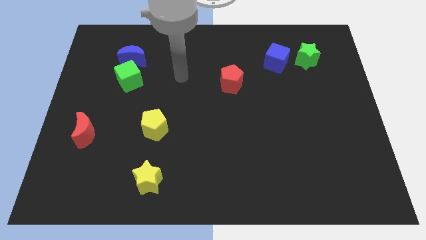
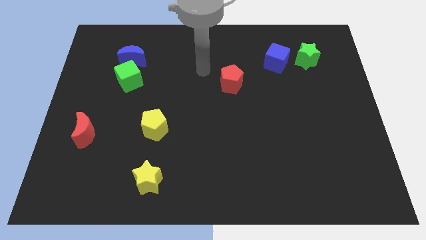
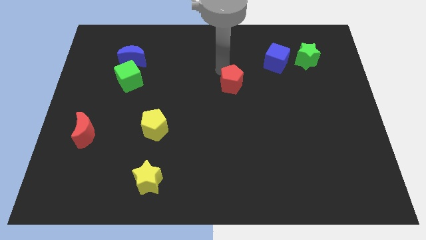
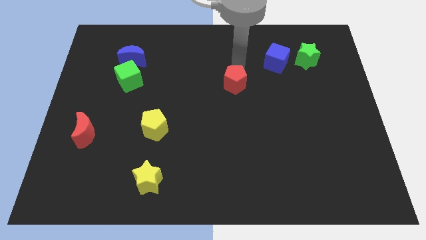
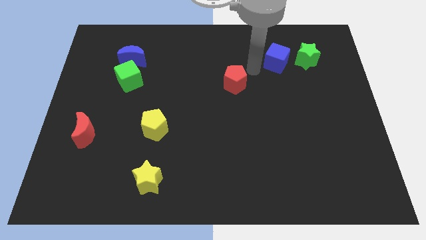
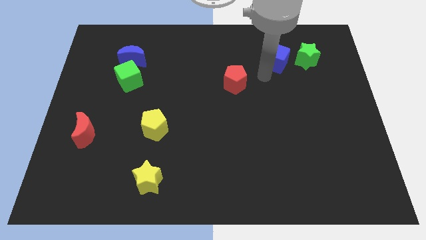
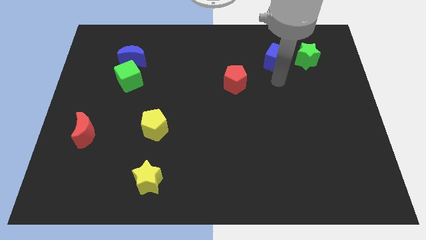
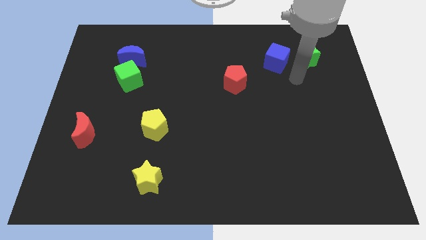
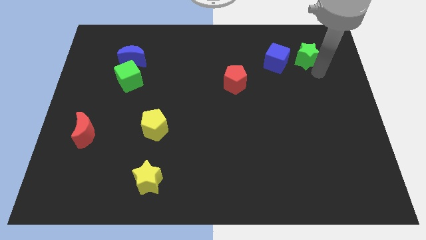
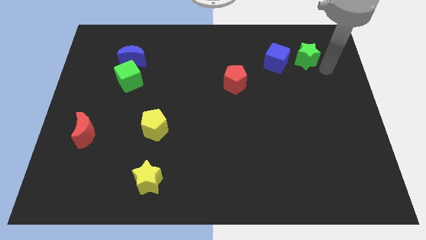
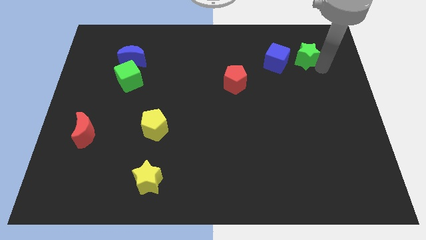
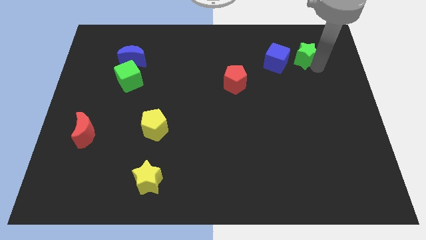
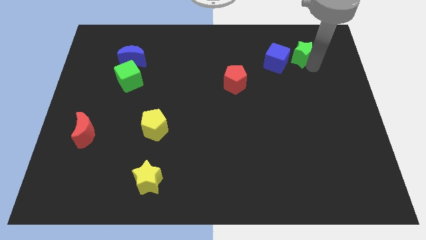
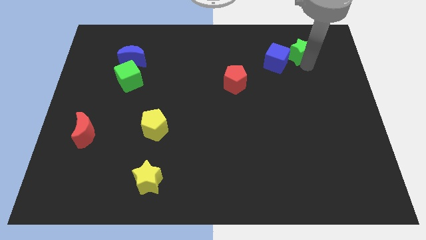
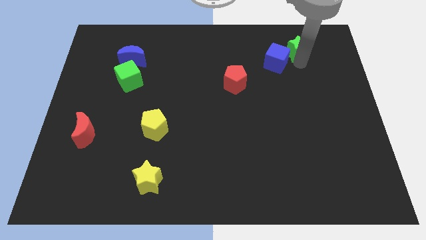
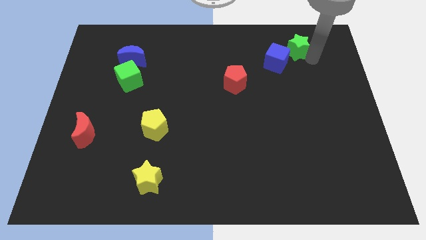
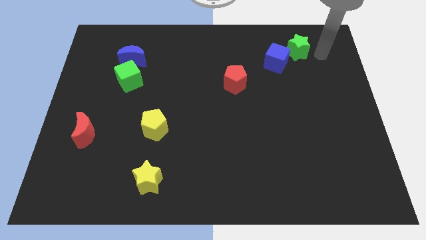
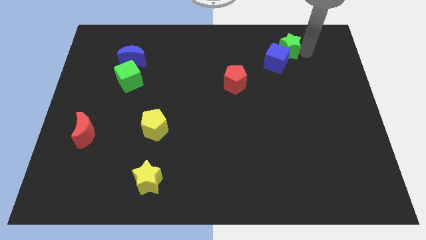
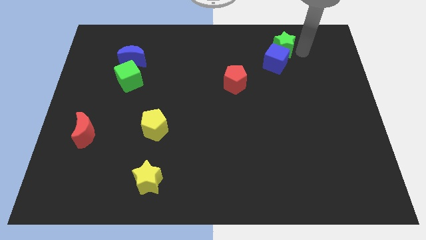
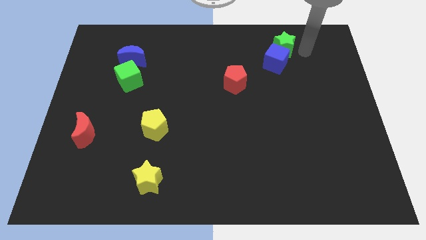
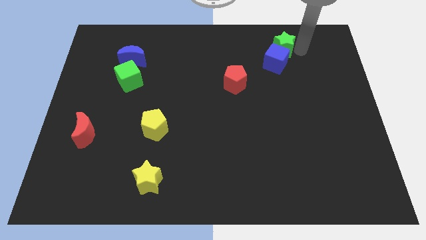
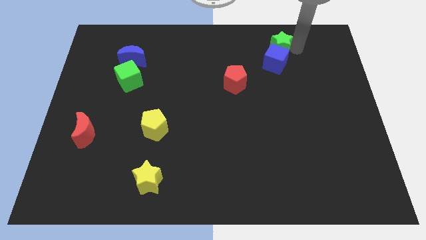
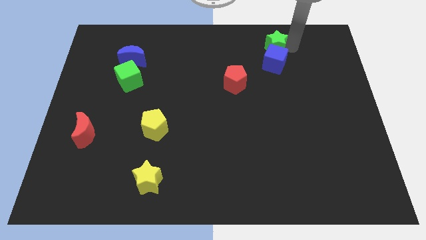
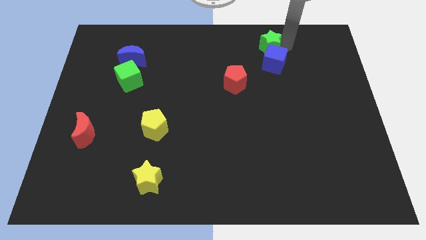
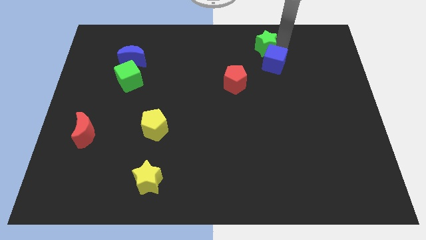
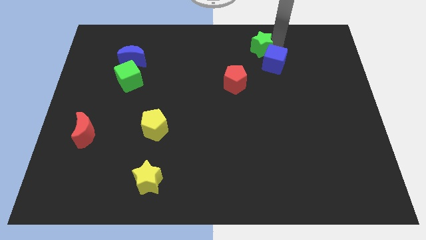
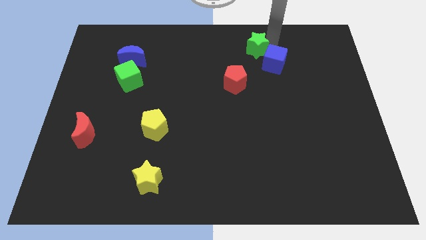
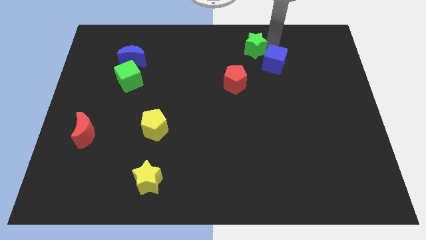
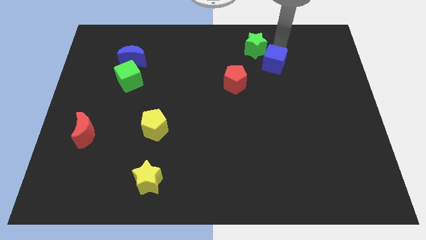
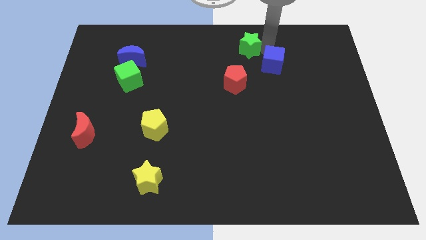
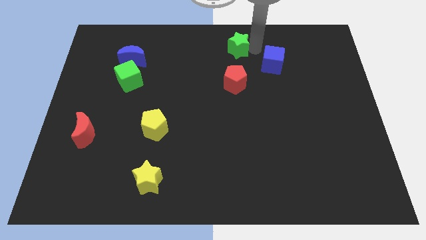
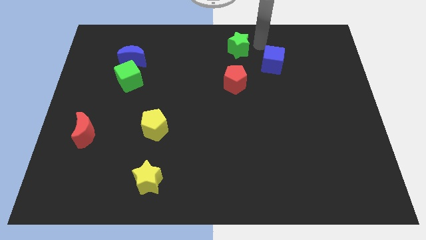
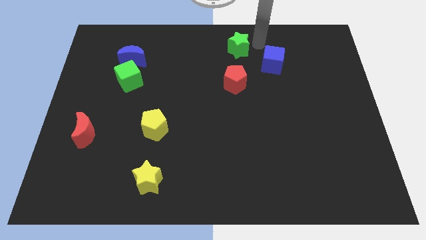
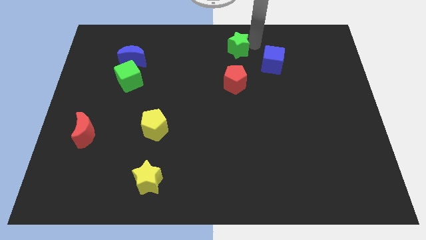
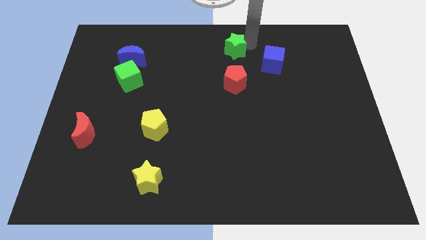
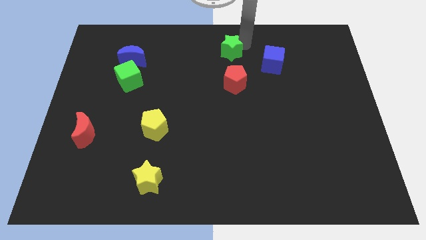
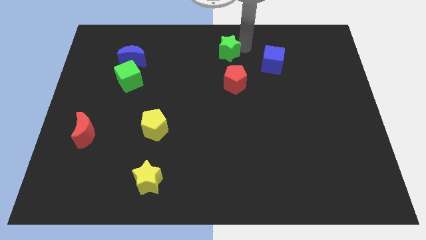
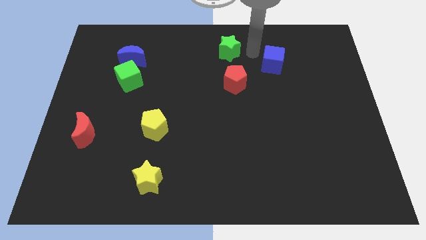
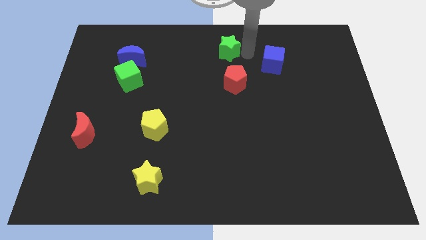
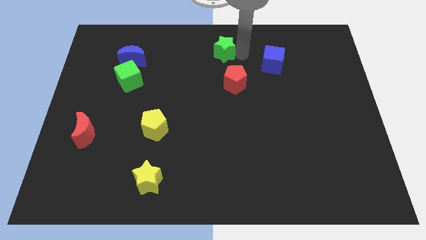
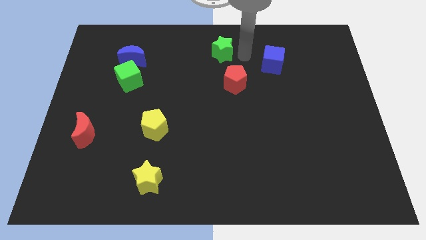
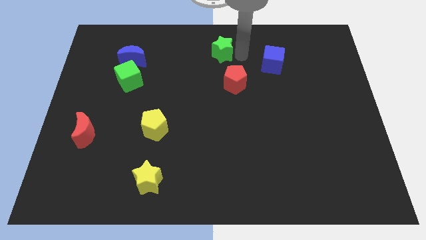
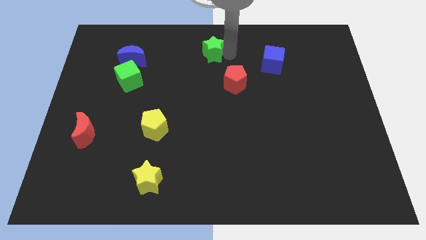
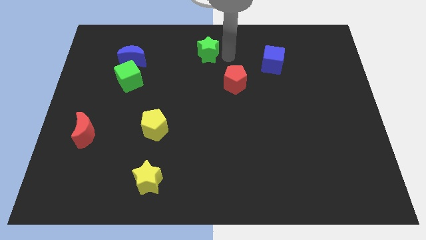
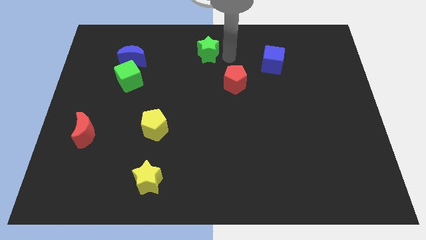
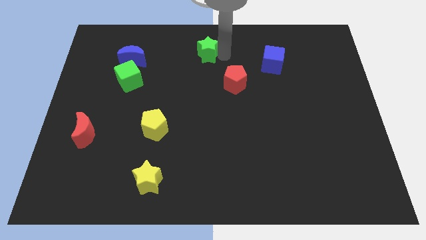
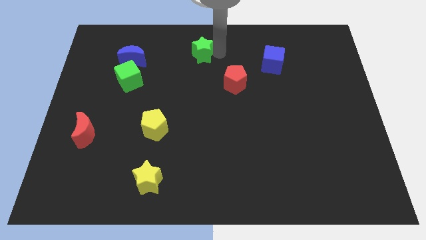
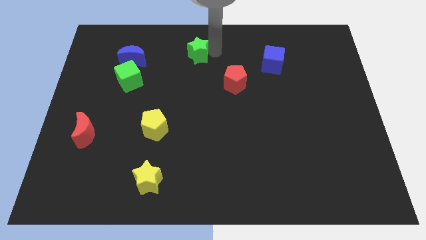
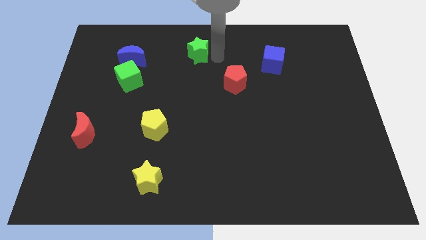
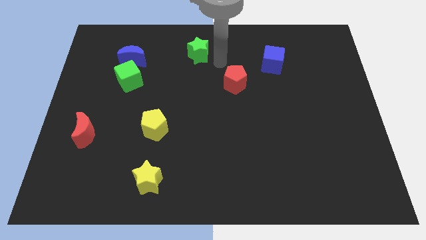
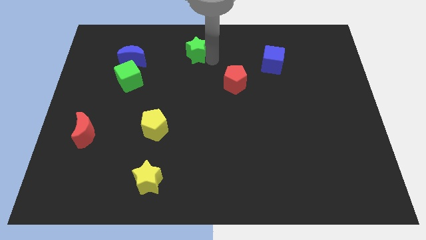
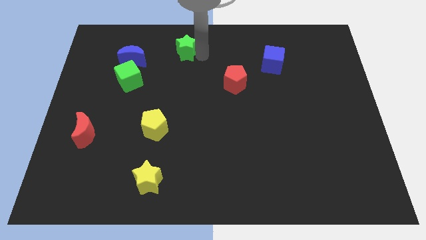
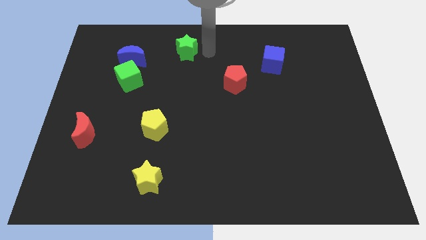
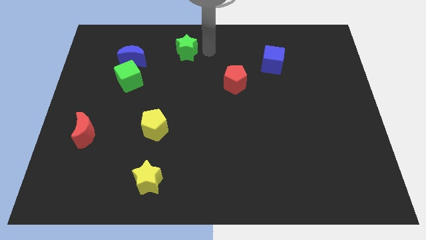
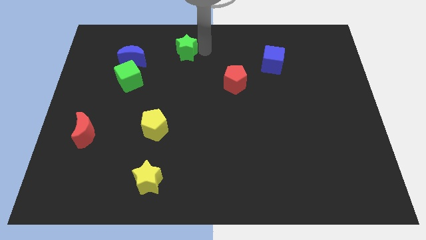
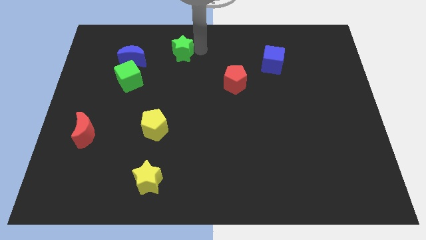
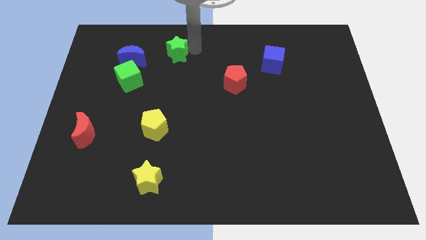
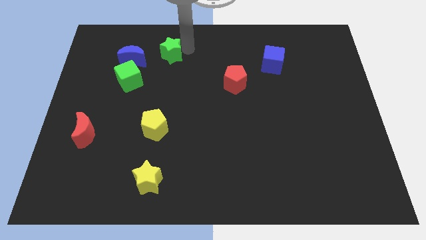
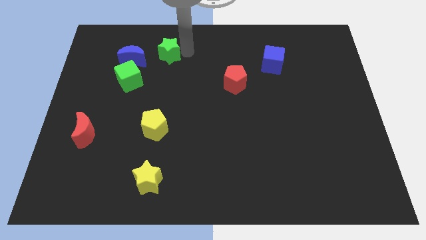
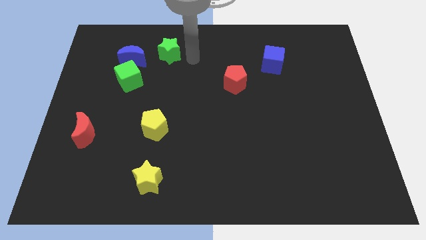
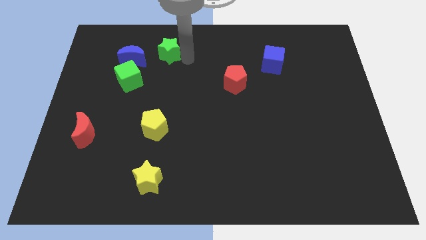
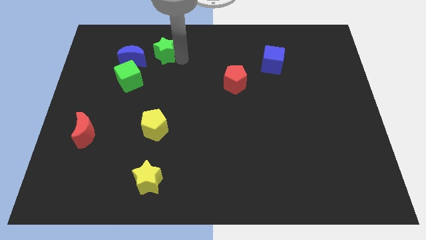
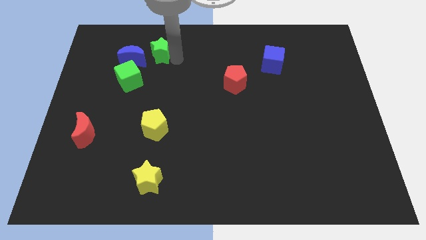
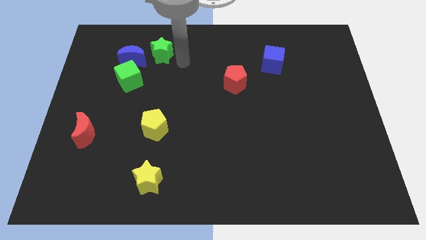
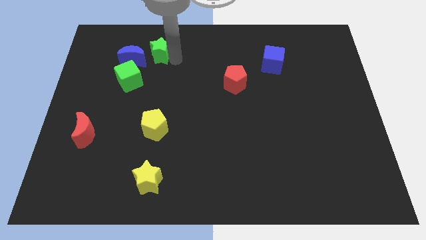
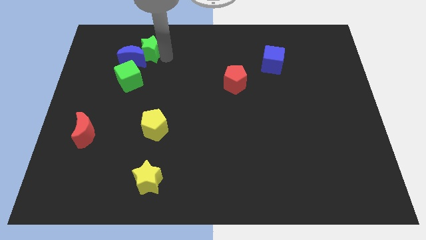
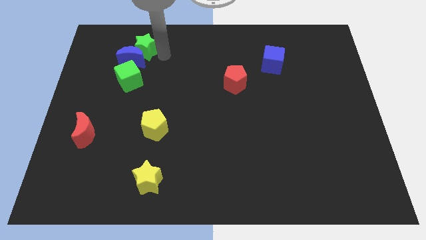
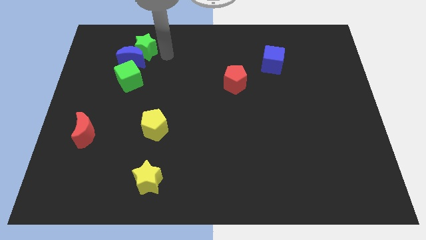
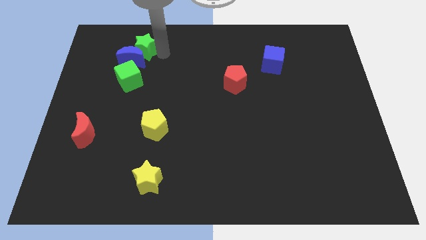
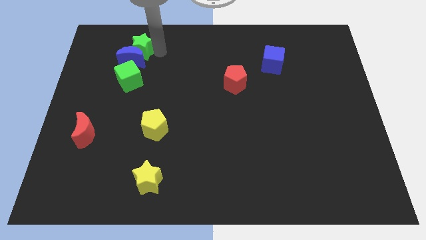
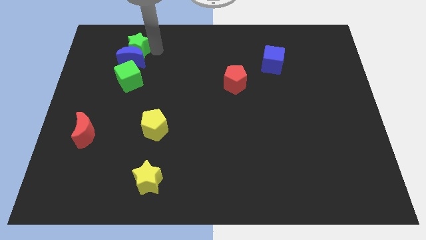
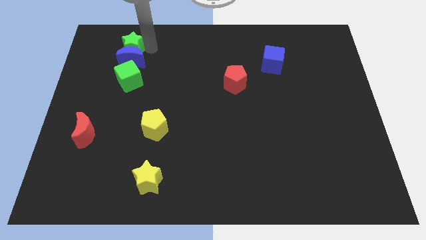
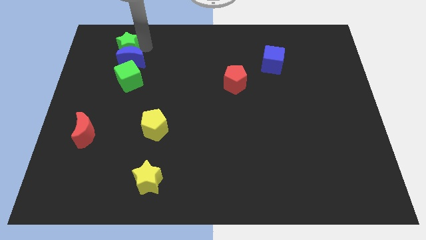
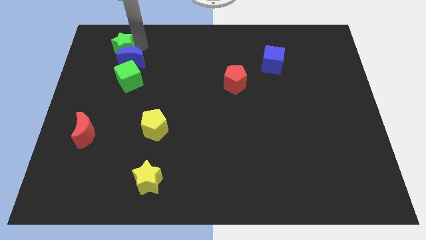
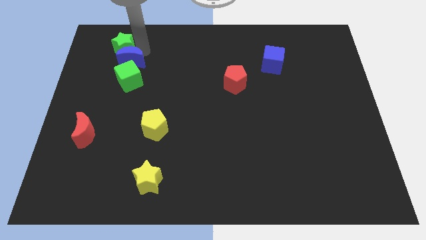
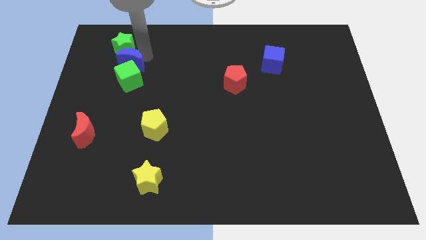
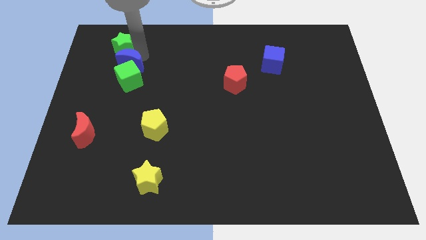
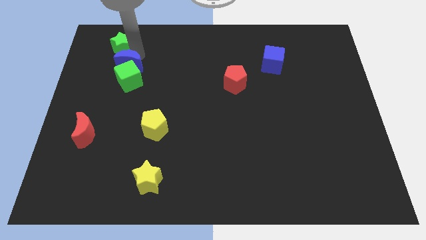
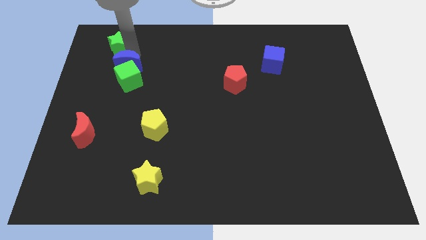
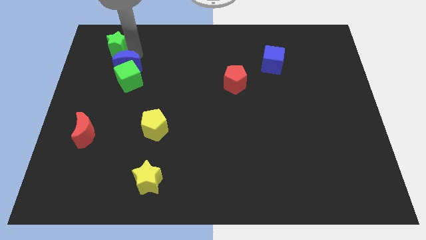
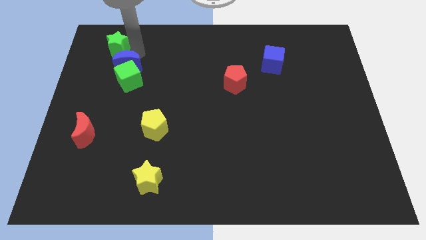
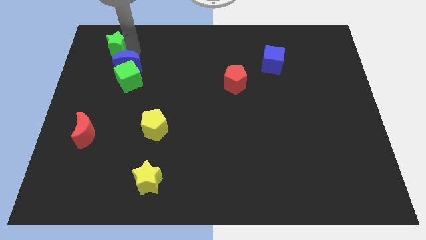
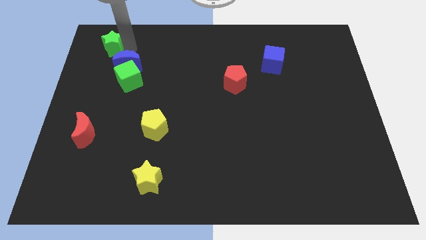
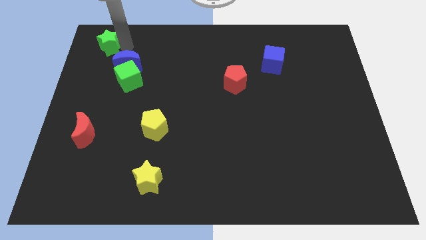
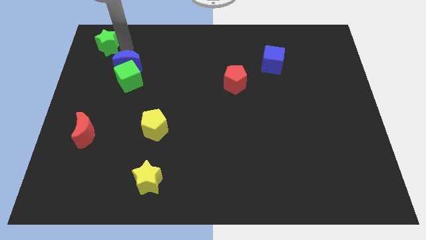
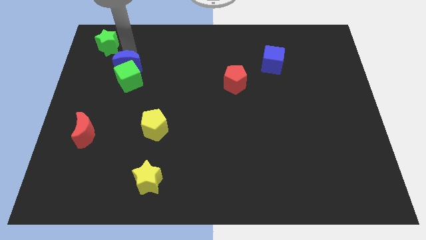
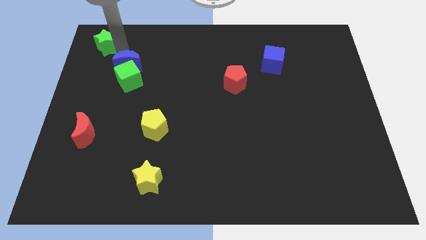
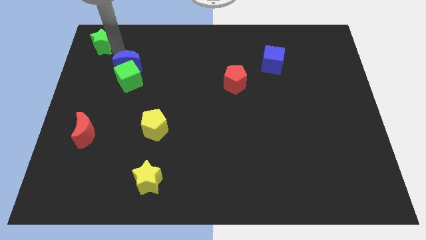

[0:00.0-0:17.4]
move the green star to the top left
